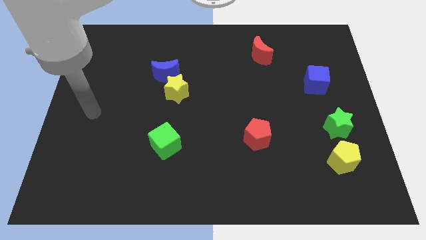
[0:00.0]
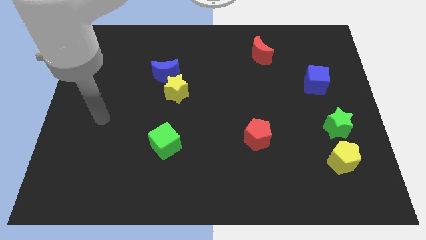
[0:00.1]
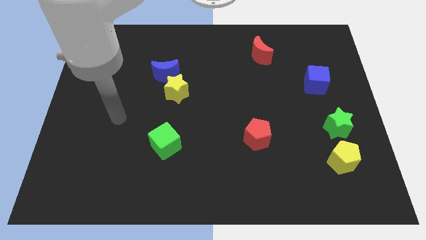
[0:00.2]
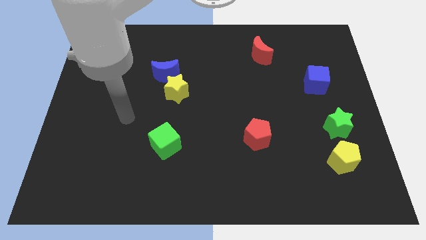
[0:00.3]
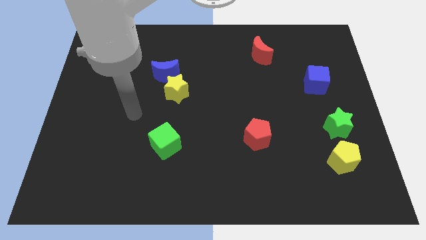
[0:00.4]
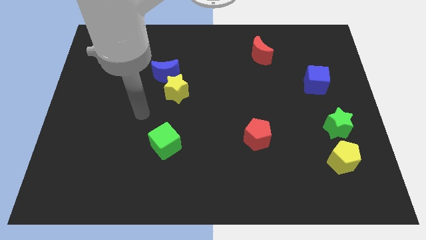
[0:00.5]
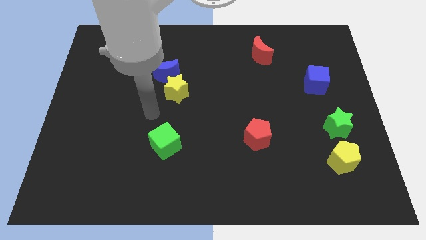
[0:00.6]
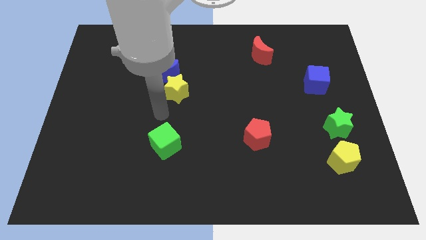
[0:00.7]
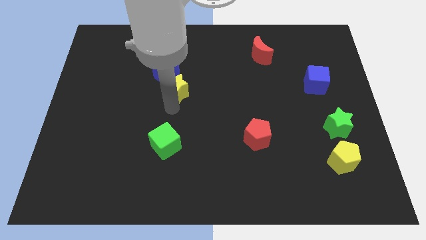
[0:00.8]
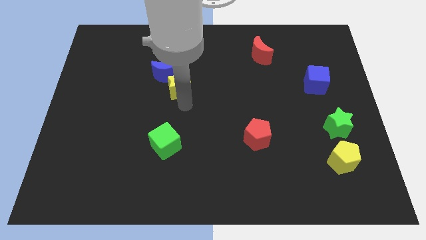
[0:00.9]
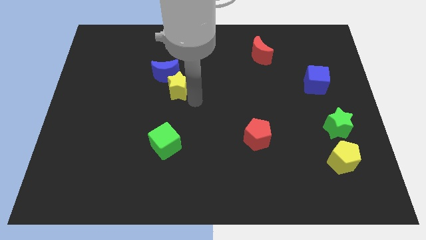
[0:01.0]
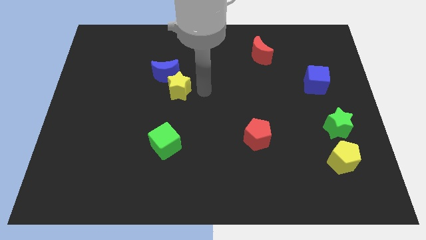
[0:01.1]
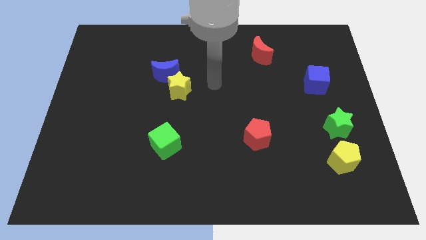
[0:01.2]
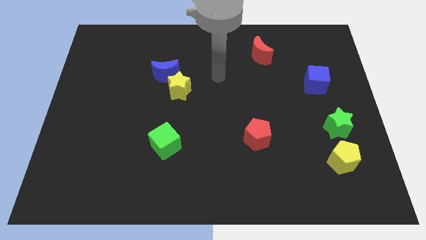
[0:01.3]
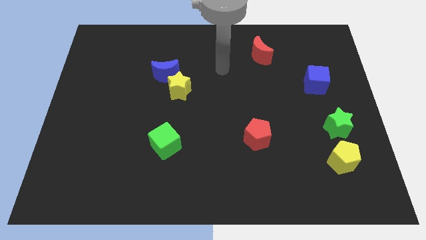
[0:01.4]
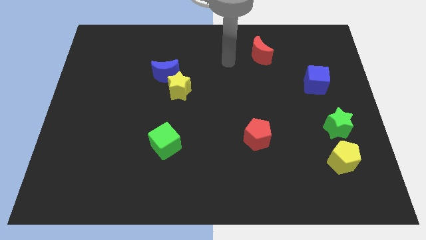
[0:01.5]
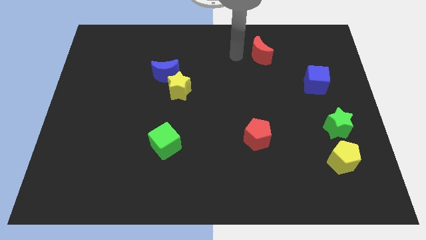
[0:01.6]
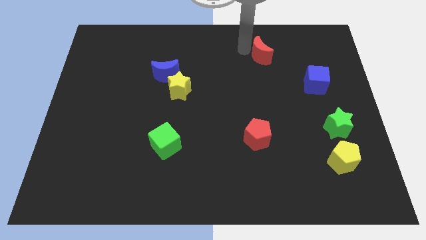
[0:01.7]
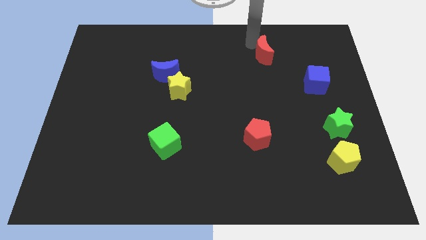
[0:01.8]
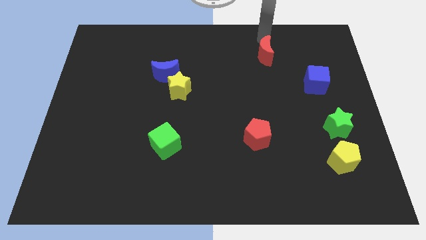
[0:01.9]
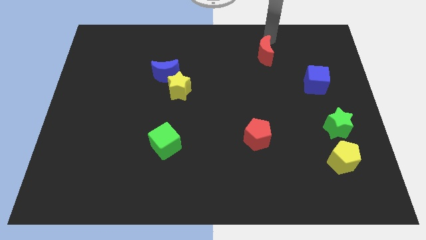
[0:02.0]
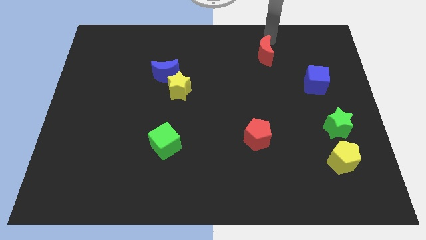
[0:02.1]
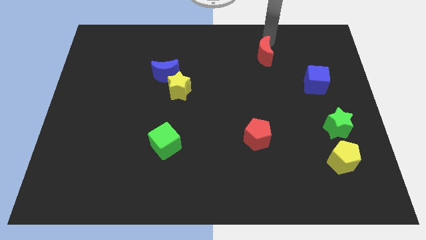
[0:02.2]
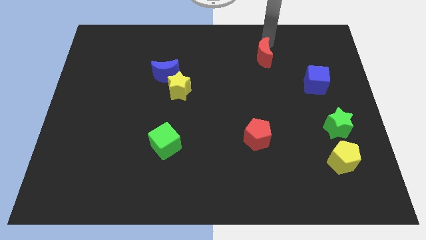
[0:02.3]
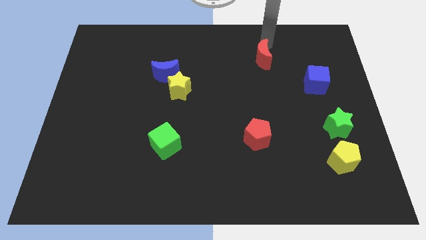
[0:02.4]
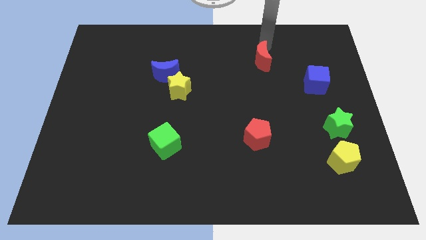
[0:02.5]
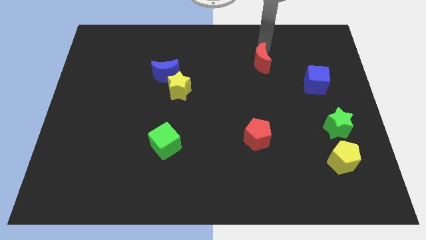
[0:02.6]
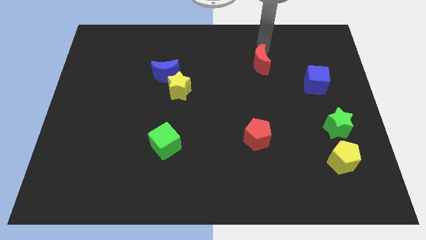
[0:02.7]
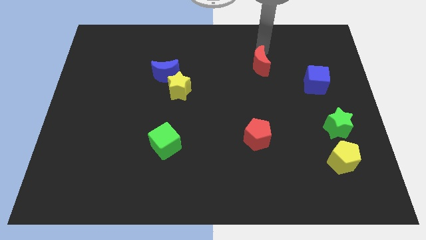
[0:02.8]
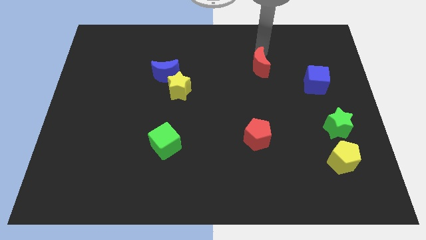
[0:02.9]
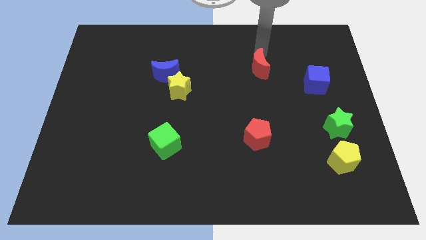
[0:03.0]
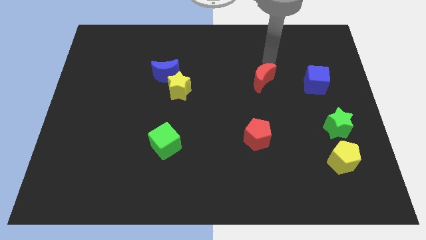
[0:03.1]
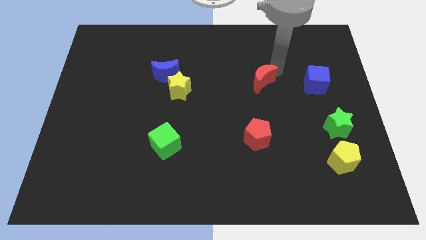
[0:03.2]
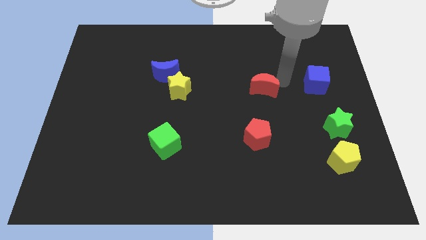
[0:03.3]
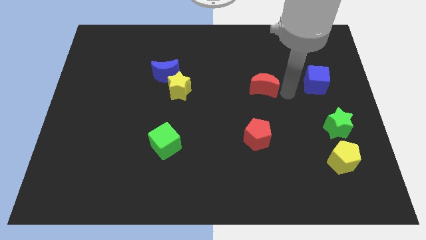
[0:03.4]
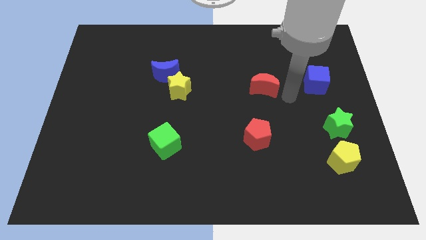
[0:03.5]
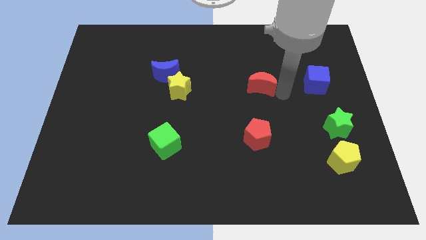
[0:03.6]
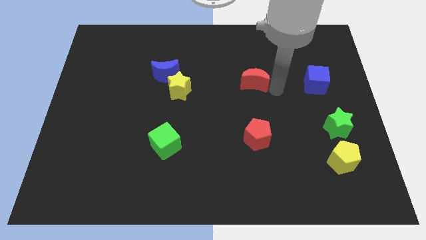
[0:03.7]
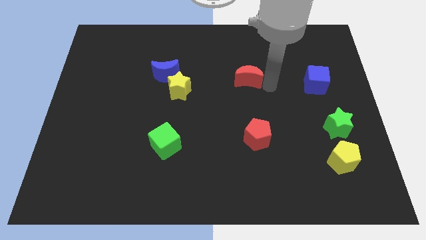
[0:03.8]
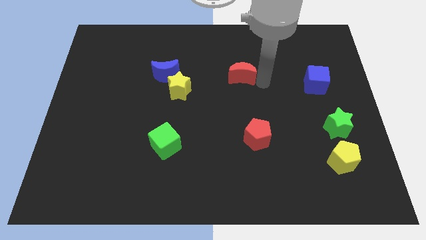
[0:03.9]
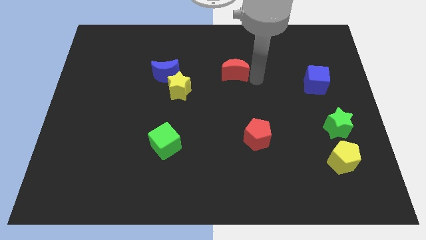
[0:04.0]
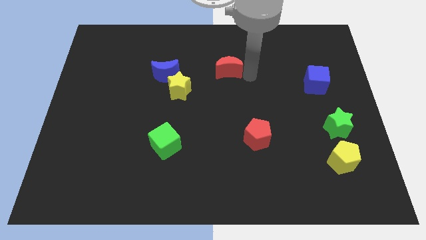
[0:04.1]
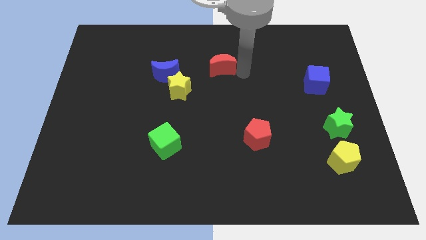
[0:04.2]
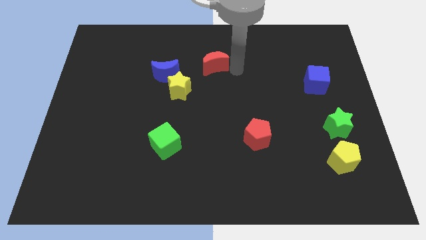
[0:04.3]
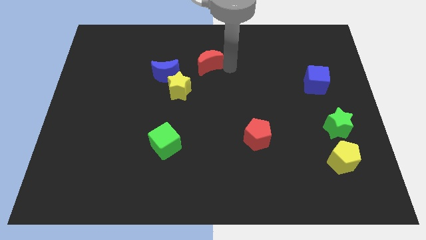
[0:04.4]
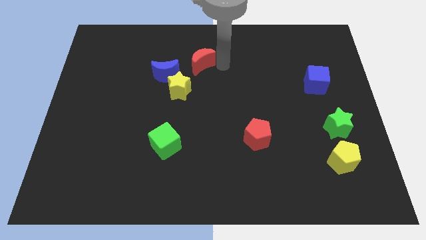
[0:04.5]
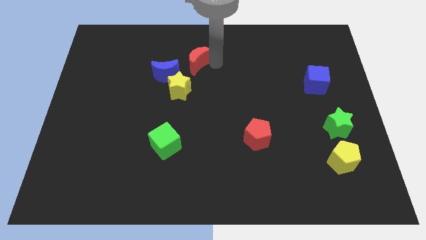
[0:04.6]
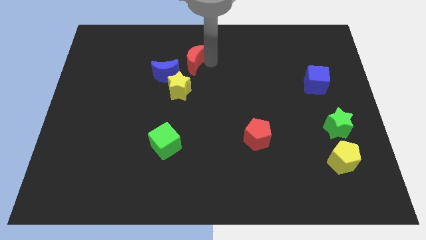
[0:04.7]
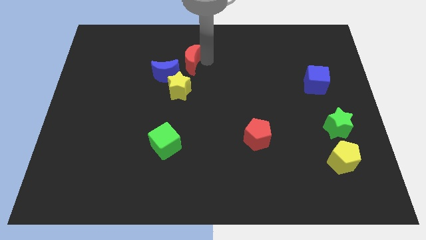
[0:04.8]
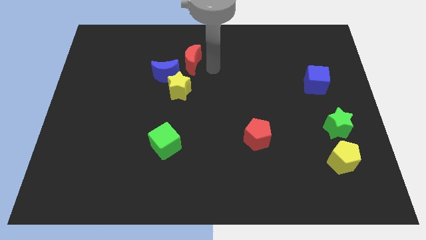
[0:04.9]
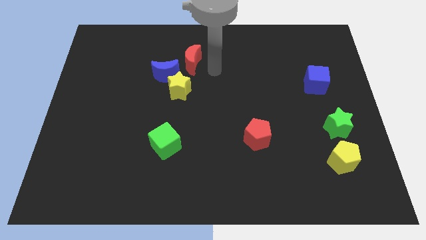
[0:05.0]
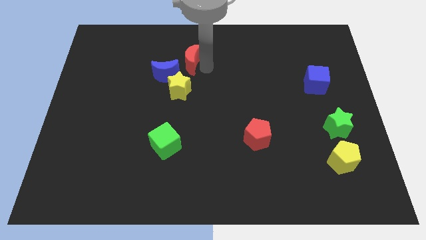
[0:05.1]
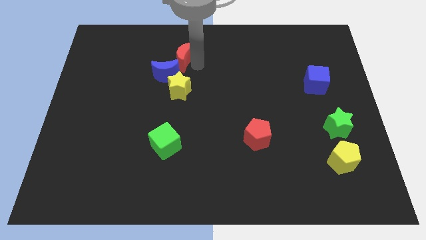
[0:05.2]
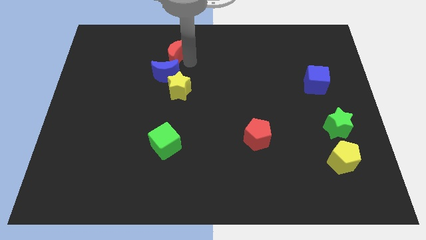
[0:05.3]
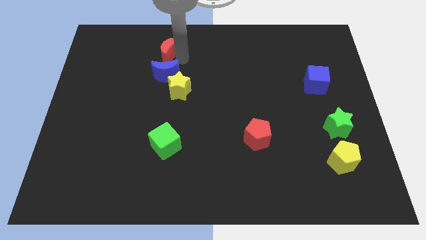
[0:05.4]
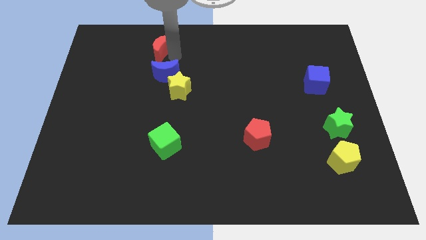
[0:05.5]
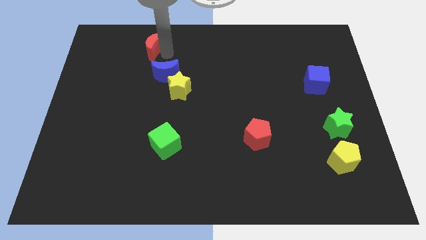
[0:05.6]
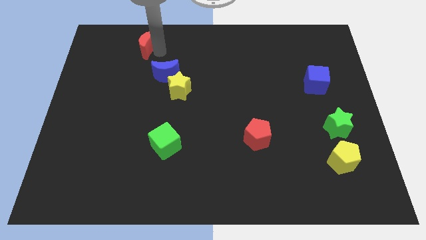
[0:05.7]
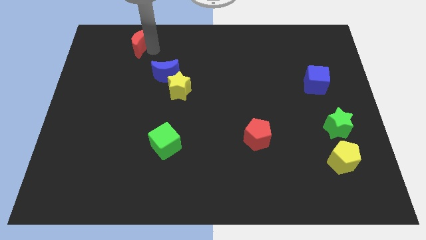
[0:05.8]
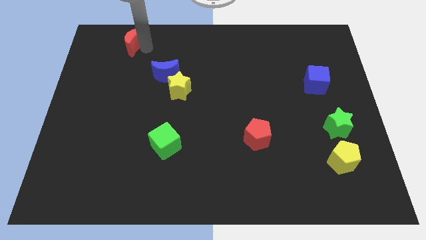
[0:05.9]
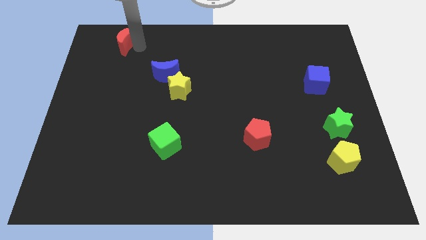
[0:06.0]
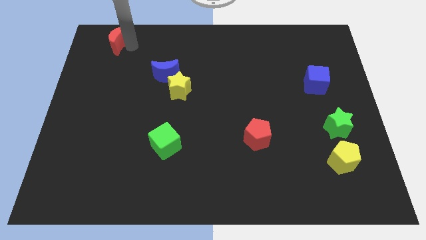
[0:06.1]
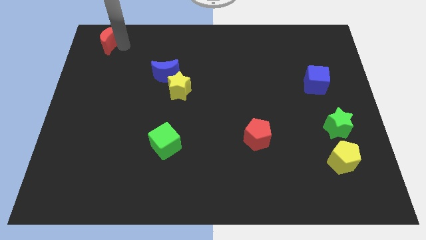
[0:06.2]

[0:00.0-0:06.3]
move the red moon to the upper left corner

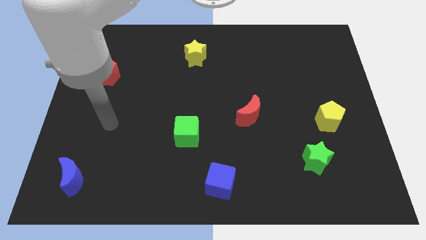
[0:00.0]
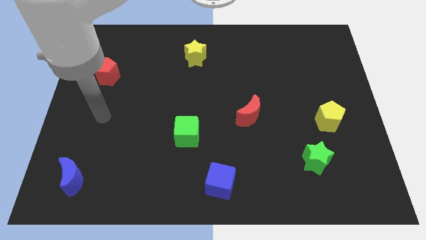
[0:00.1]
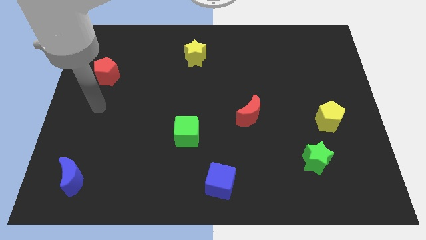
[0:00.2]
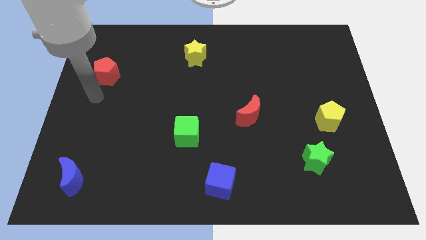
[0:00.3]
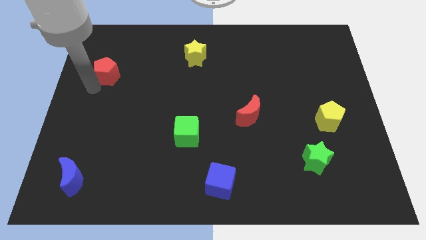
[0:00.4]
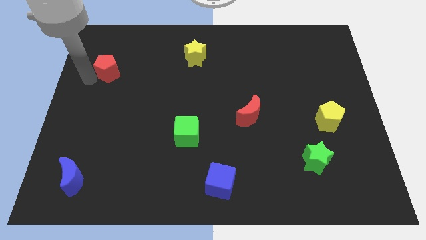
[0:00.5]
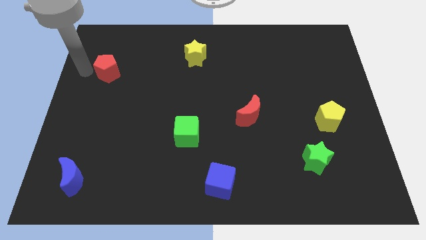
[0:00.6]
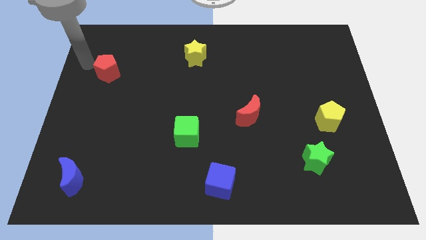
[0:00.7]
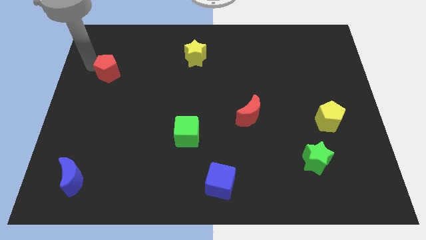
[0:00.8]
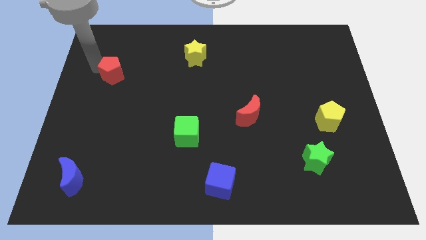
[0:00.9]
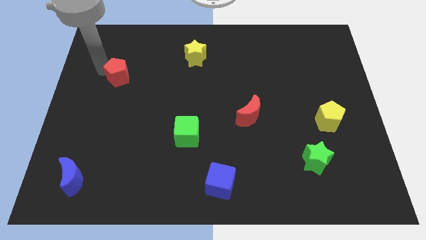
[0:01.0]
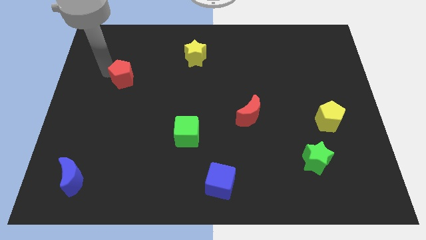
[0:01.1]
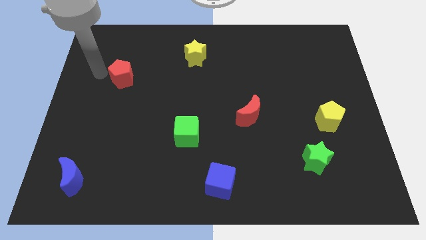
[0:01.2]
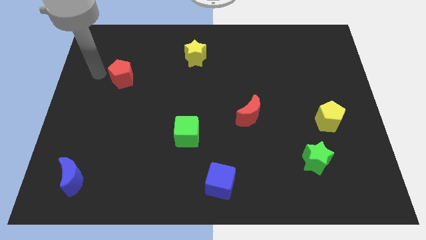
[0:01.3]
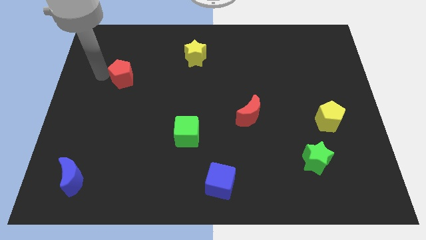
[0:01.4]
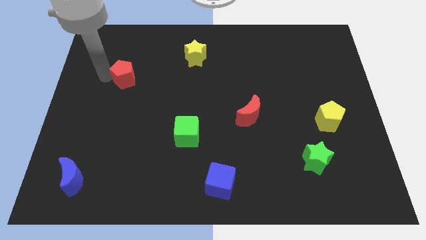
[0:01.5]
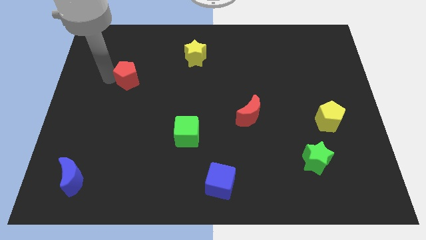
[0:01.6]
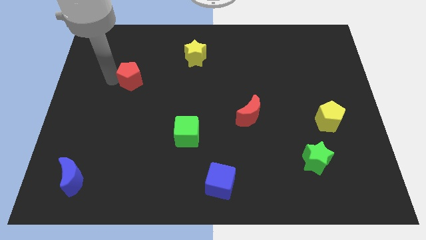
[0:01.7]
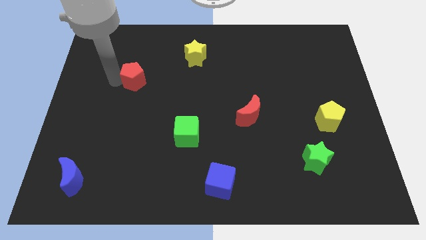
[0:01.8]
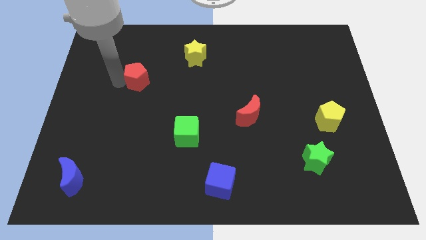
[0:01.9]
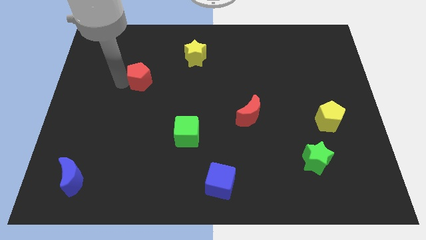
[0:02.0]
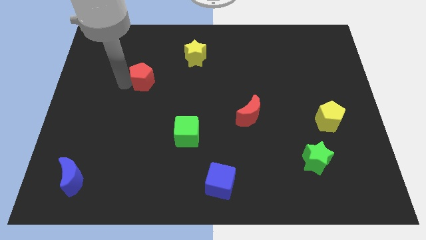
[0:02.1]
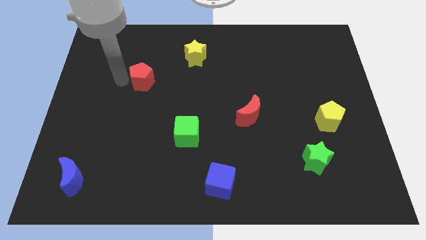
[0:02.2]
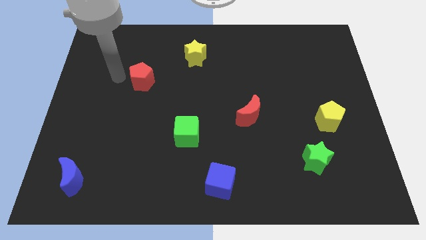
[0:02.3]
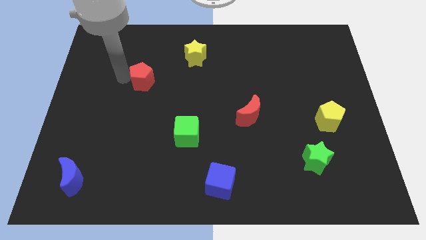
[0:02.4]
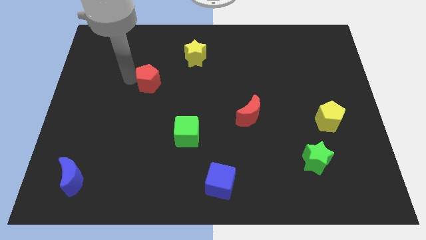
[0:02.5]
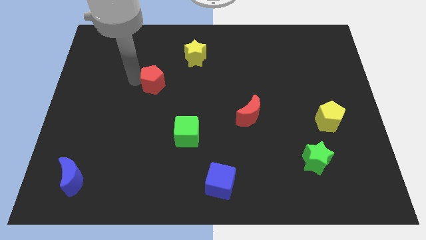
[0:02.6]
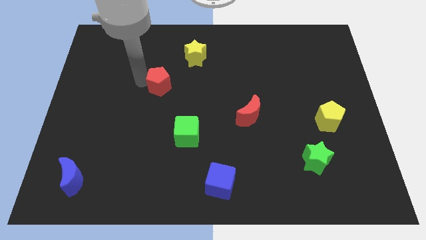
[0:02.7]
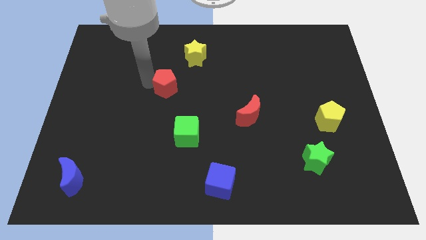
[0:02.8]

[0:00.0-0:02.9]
slide the red pentagon to the middle
